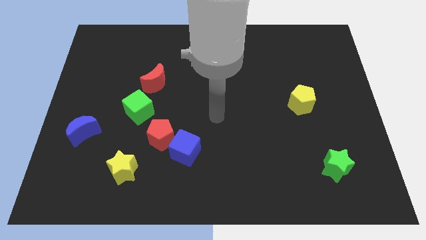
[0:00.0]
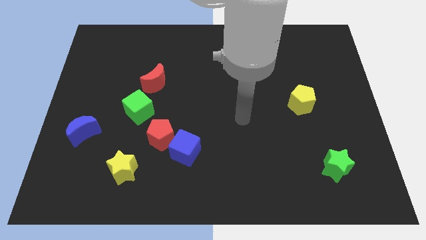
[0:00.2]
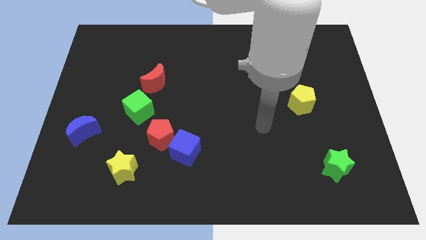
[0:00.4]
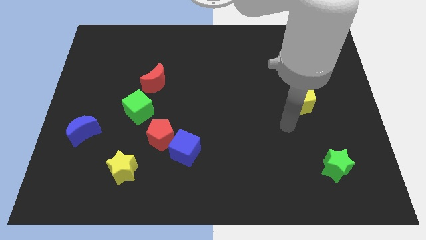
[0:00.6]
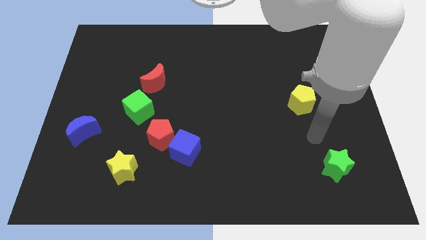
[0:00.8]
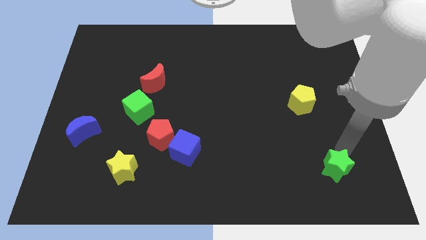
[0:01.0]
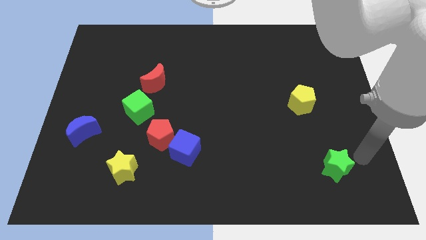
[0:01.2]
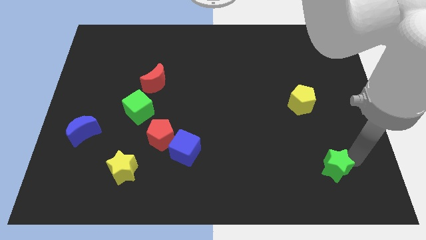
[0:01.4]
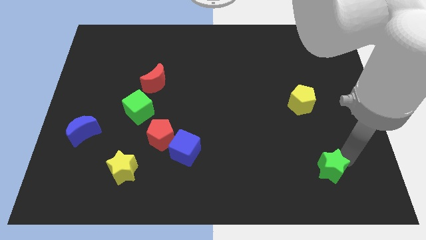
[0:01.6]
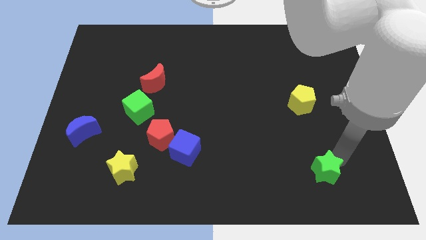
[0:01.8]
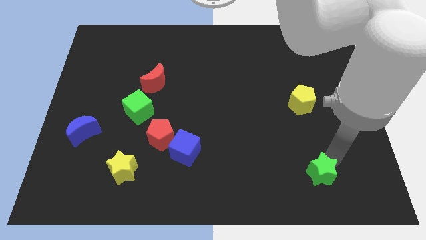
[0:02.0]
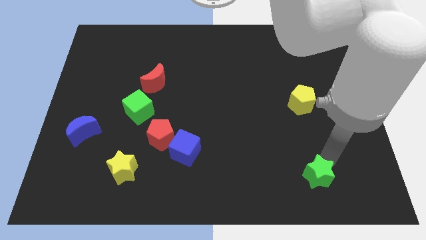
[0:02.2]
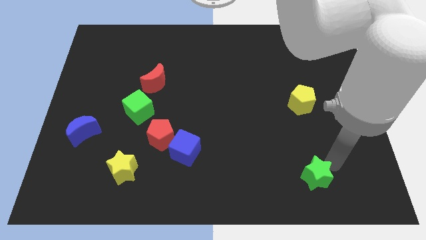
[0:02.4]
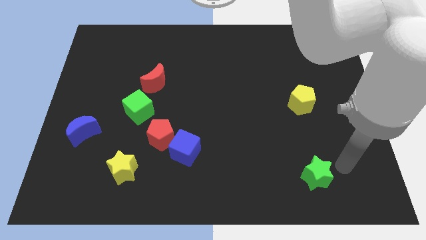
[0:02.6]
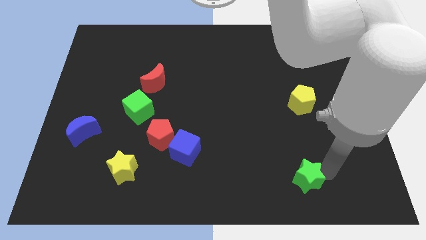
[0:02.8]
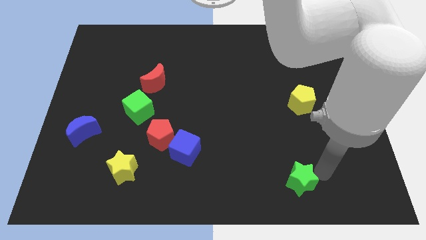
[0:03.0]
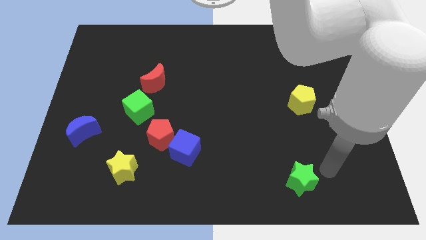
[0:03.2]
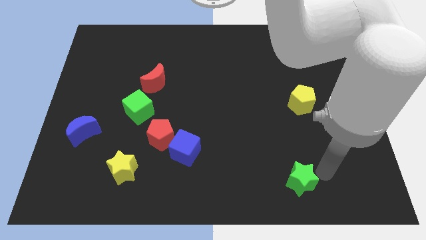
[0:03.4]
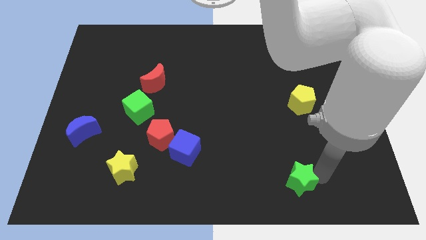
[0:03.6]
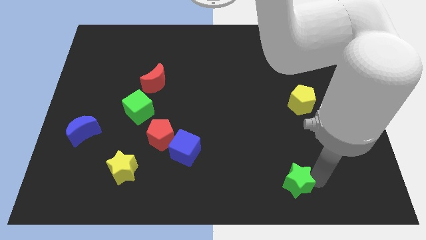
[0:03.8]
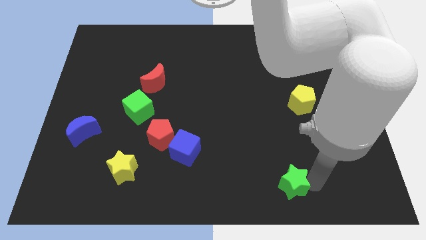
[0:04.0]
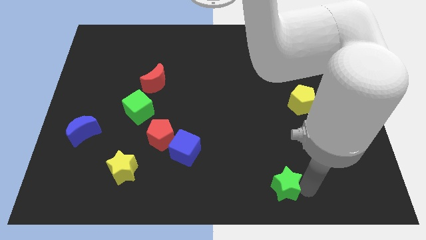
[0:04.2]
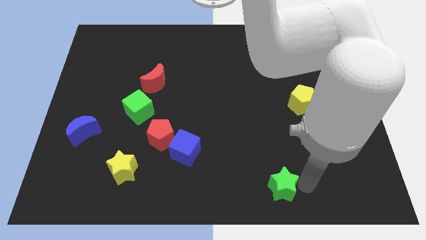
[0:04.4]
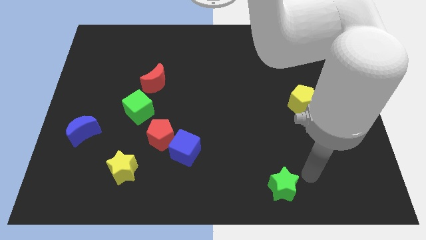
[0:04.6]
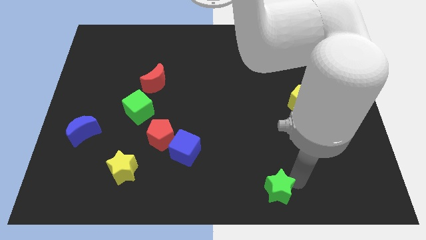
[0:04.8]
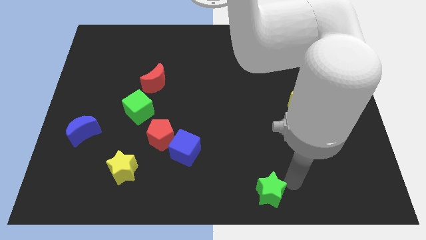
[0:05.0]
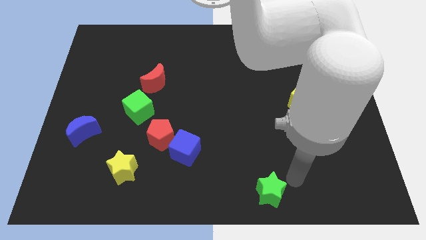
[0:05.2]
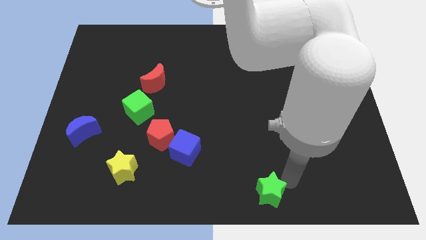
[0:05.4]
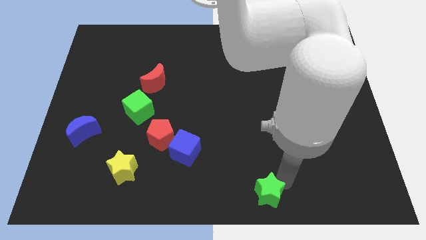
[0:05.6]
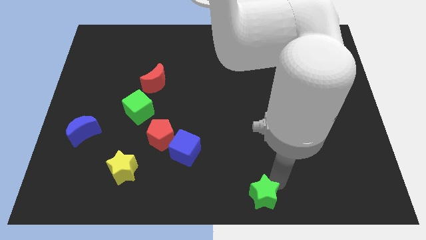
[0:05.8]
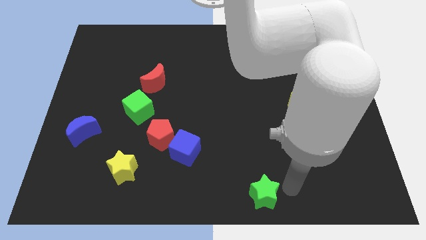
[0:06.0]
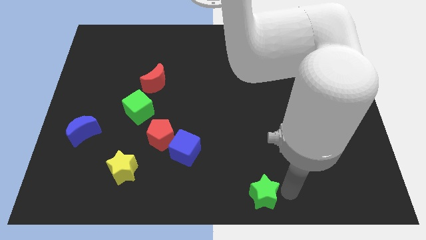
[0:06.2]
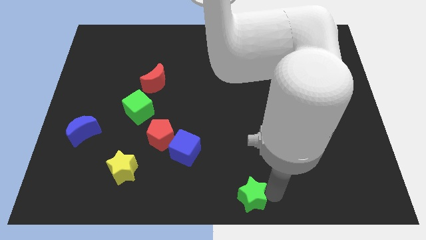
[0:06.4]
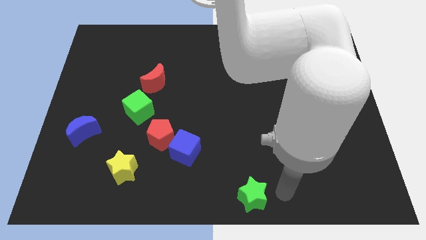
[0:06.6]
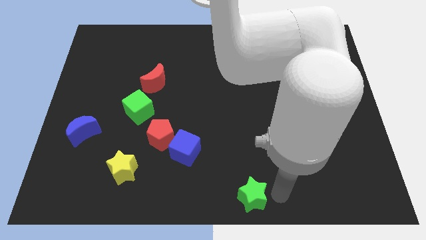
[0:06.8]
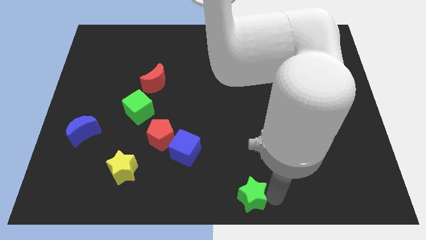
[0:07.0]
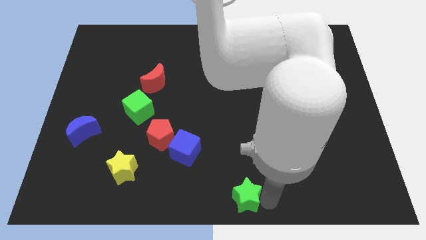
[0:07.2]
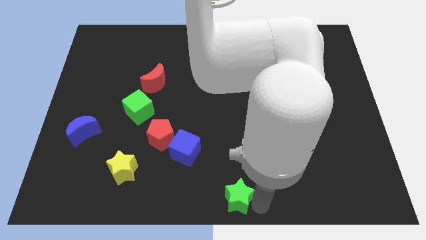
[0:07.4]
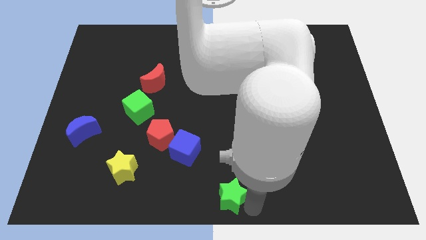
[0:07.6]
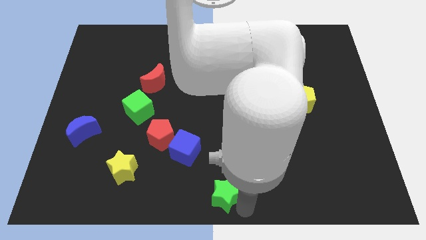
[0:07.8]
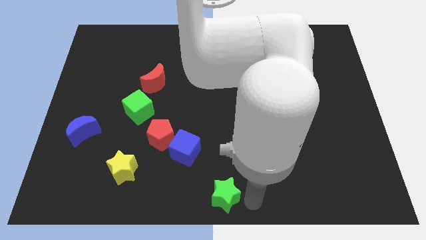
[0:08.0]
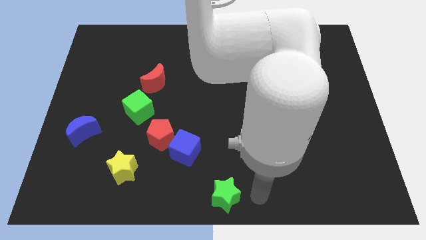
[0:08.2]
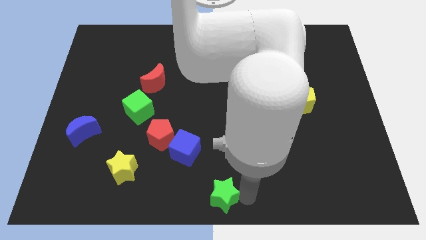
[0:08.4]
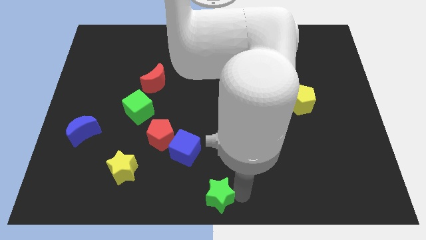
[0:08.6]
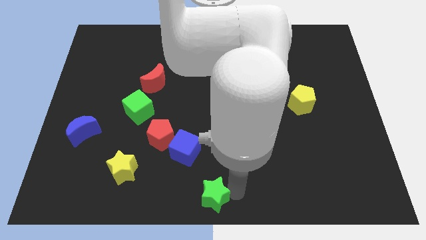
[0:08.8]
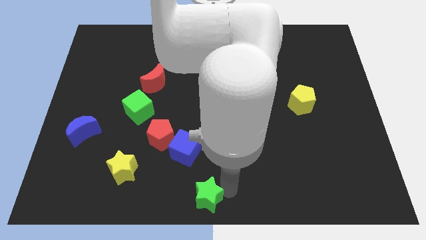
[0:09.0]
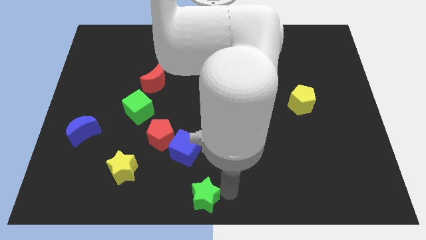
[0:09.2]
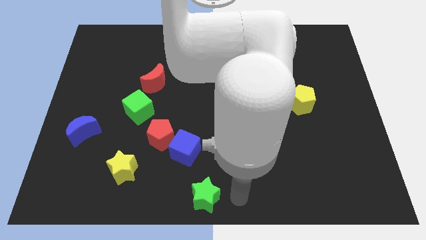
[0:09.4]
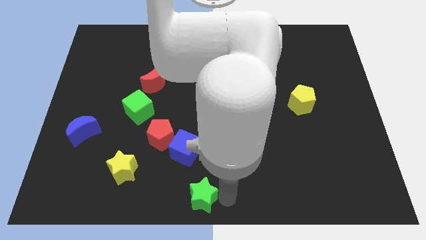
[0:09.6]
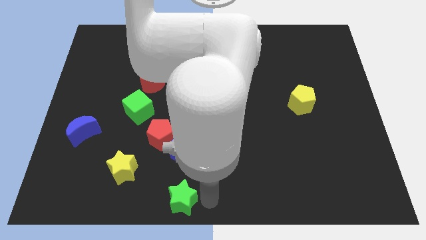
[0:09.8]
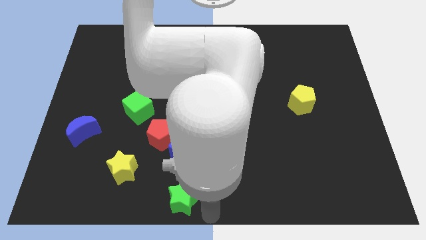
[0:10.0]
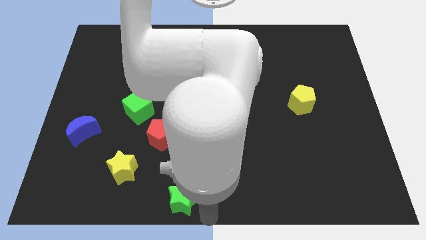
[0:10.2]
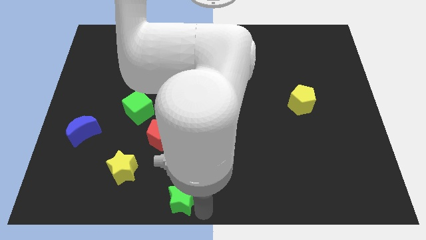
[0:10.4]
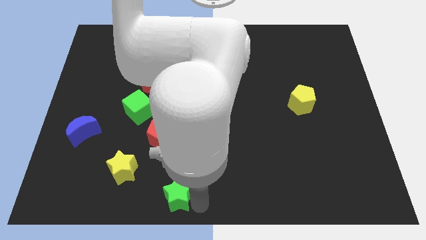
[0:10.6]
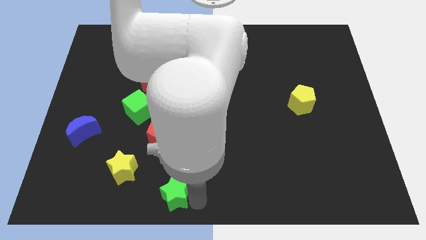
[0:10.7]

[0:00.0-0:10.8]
push the green star to the bottom of the red pentagon

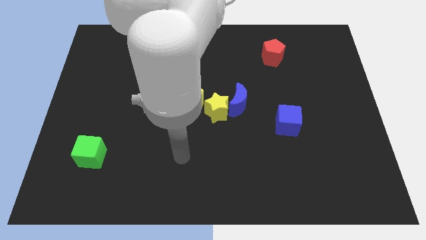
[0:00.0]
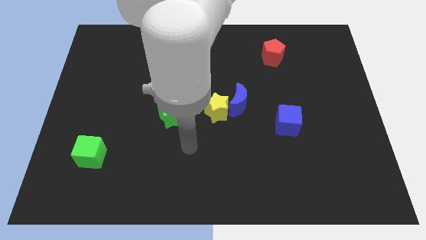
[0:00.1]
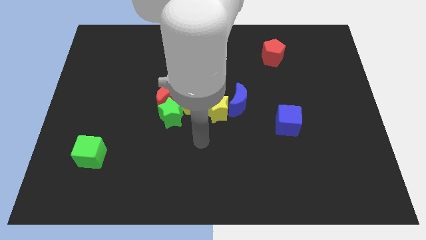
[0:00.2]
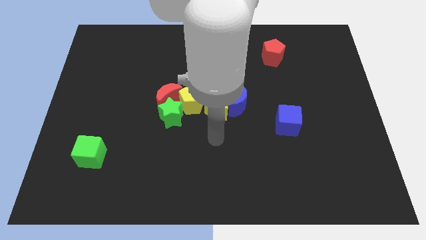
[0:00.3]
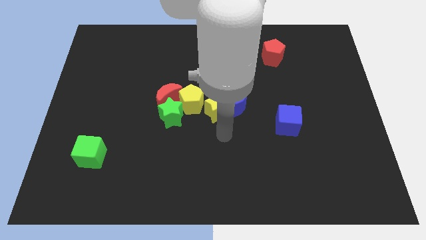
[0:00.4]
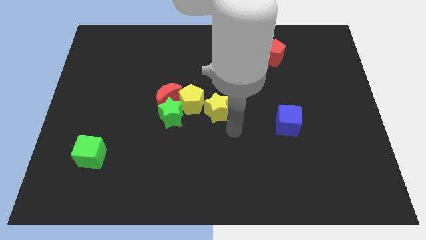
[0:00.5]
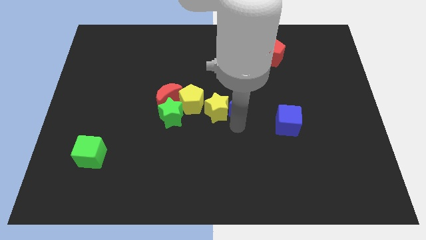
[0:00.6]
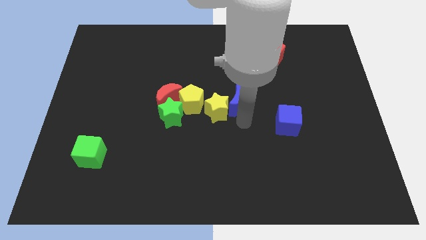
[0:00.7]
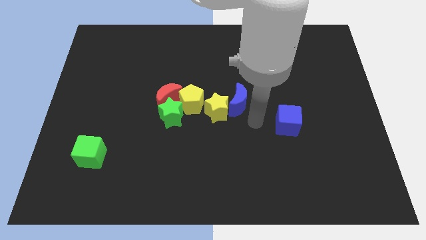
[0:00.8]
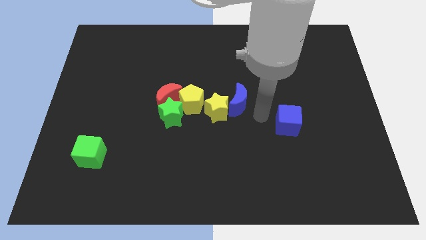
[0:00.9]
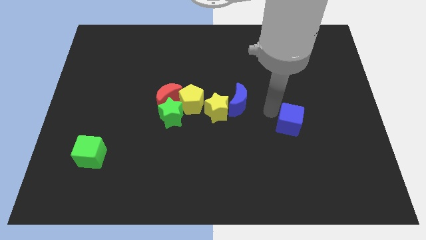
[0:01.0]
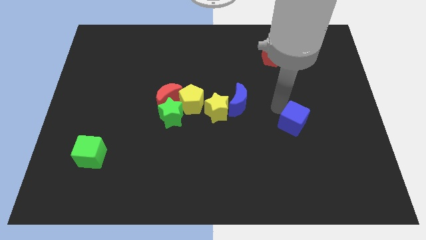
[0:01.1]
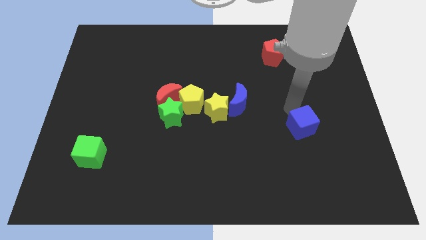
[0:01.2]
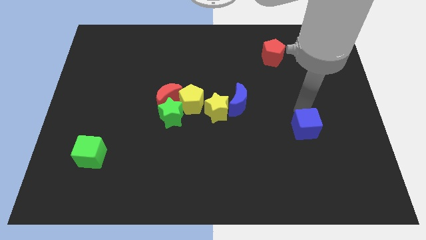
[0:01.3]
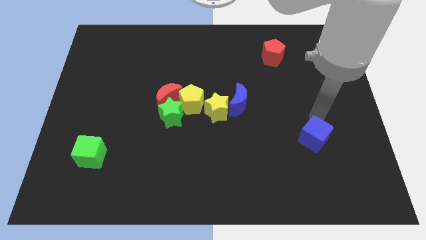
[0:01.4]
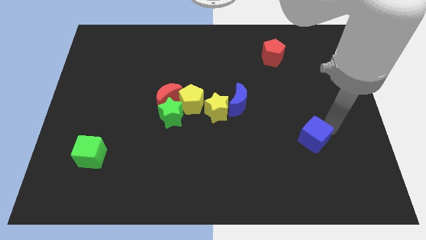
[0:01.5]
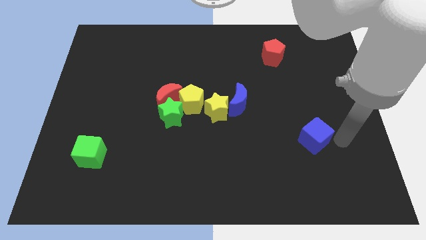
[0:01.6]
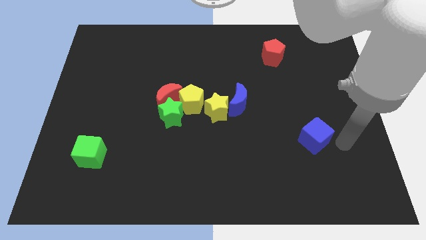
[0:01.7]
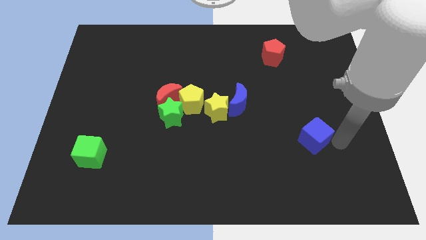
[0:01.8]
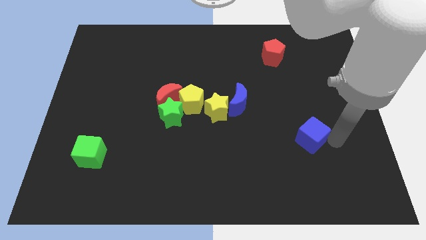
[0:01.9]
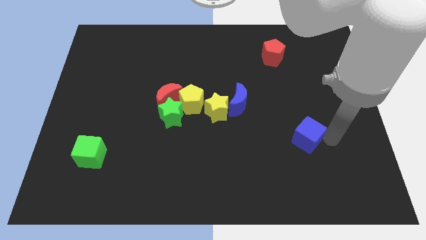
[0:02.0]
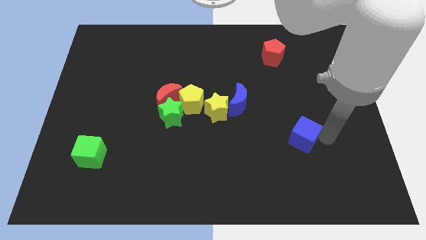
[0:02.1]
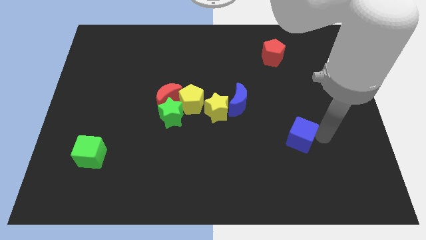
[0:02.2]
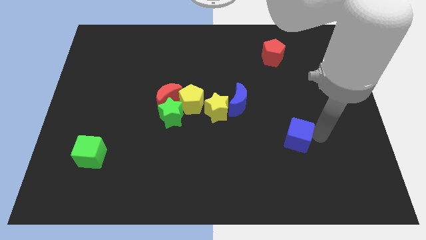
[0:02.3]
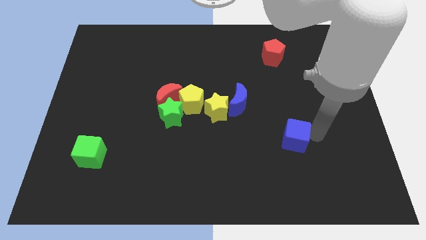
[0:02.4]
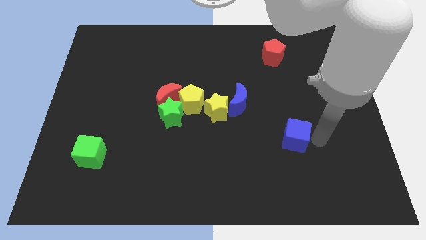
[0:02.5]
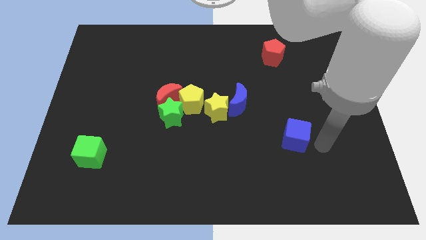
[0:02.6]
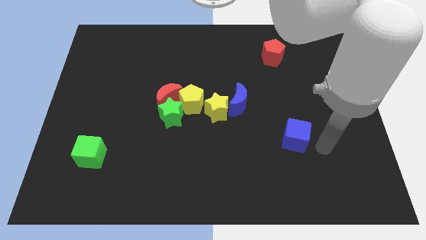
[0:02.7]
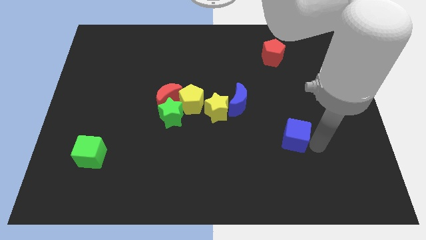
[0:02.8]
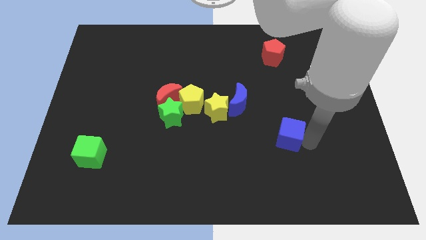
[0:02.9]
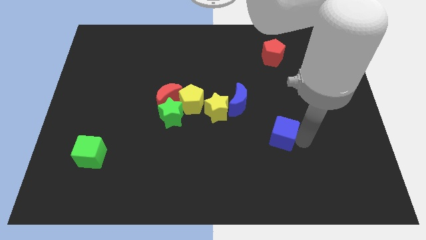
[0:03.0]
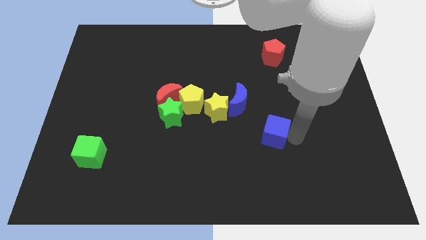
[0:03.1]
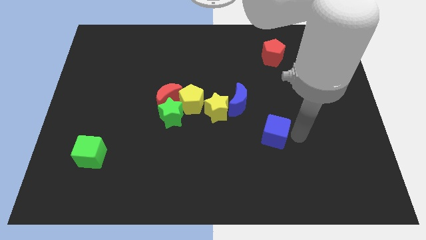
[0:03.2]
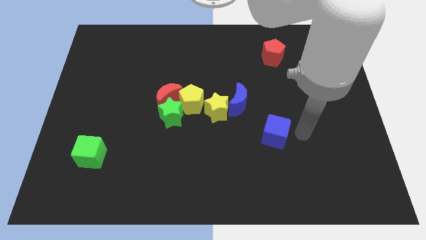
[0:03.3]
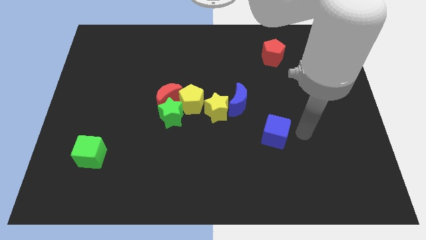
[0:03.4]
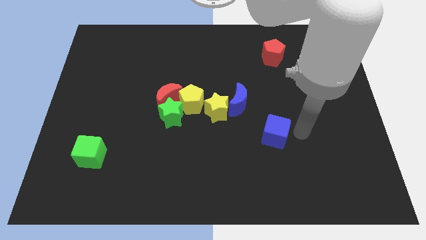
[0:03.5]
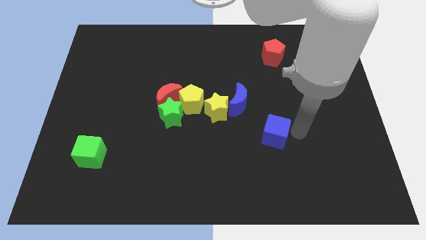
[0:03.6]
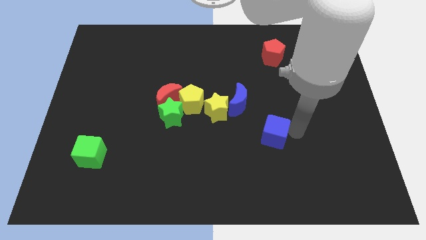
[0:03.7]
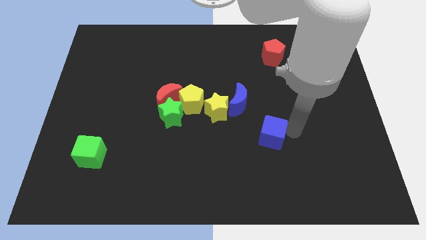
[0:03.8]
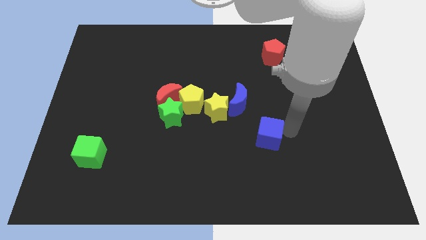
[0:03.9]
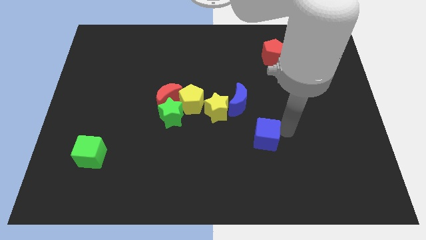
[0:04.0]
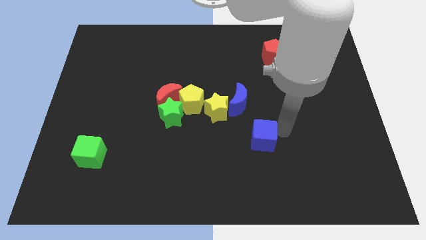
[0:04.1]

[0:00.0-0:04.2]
put the blue cube to the bottom side of the blue moon
